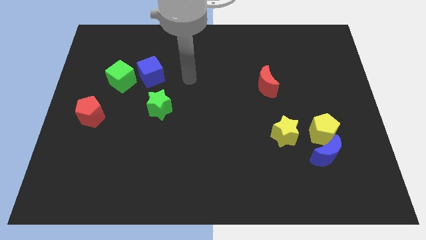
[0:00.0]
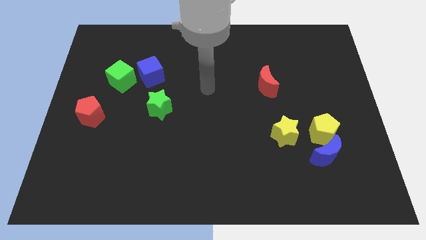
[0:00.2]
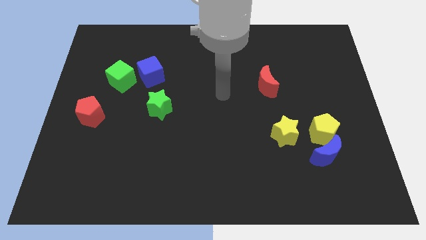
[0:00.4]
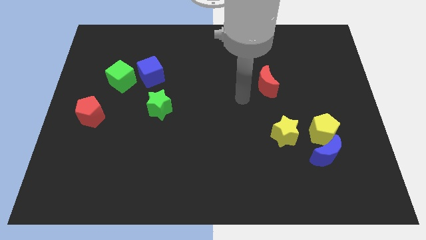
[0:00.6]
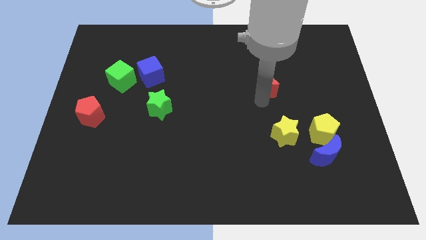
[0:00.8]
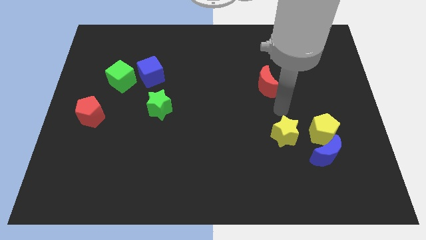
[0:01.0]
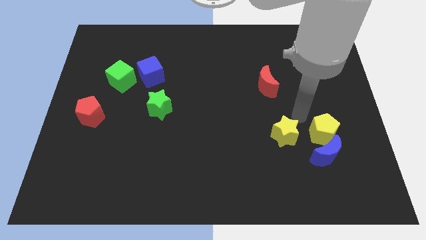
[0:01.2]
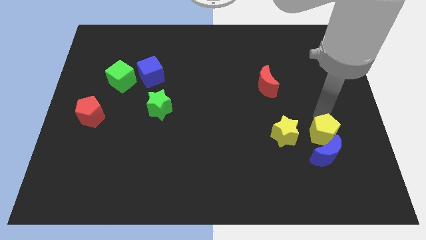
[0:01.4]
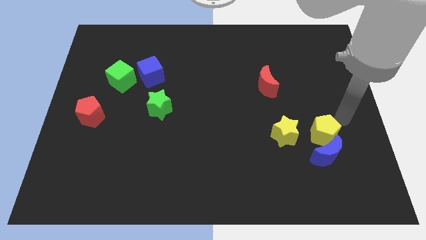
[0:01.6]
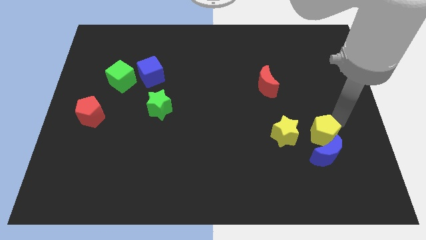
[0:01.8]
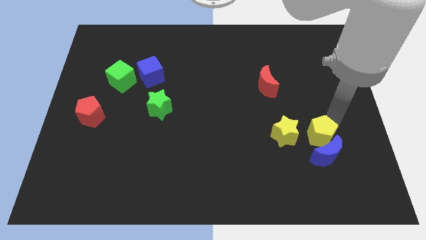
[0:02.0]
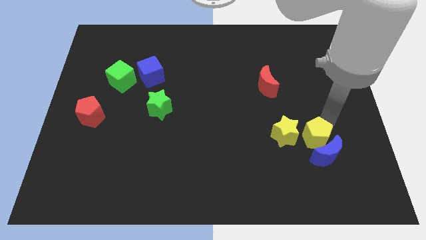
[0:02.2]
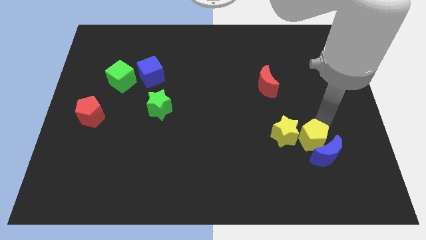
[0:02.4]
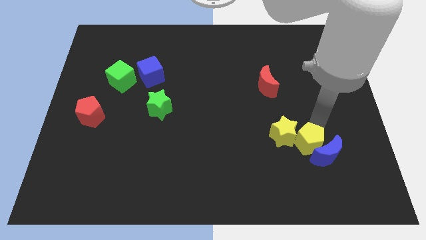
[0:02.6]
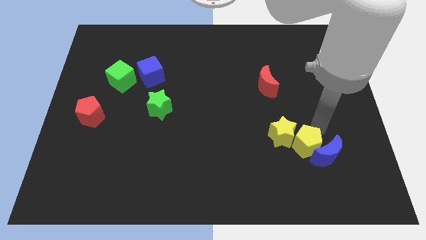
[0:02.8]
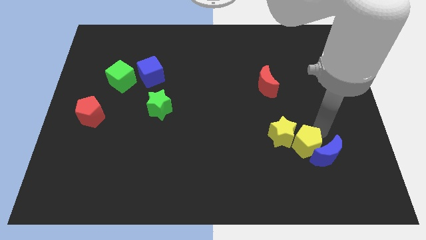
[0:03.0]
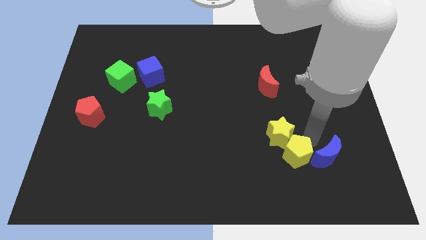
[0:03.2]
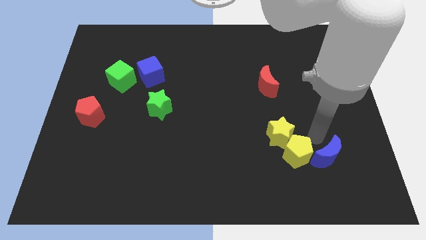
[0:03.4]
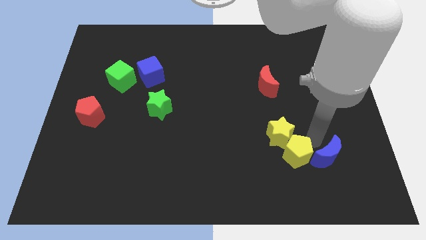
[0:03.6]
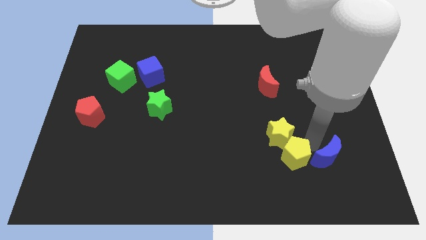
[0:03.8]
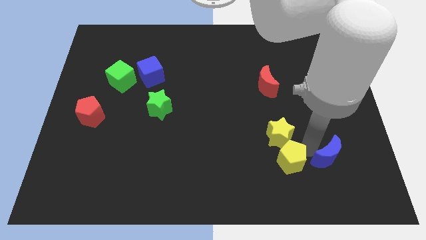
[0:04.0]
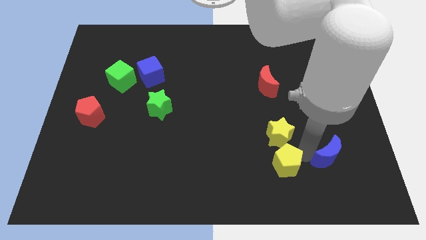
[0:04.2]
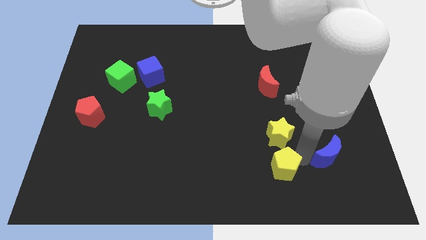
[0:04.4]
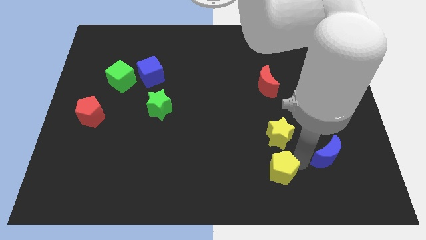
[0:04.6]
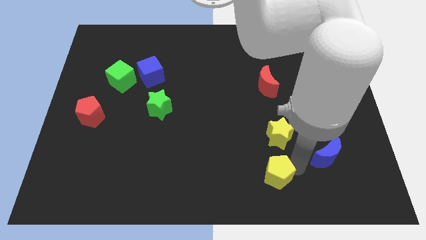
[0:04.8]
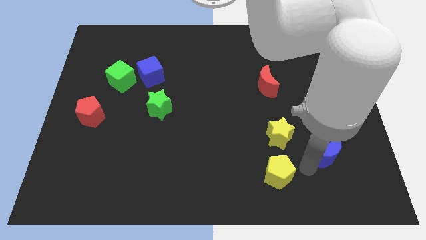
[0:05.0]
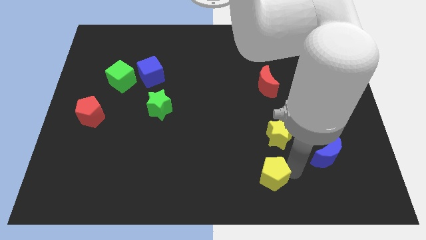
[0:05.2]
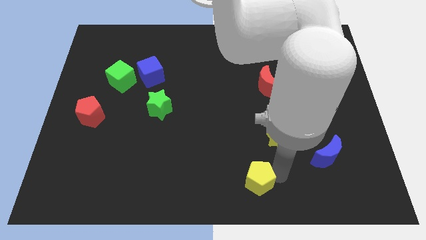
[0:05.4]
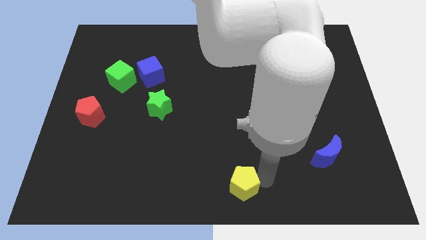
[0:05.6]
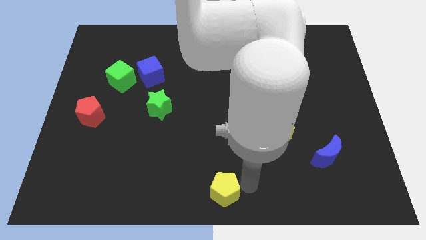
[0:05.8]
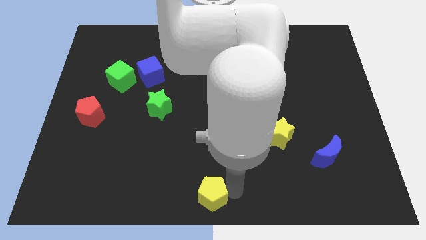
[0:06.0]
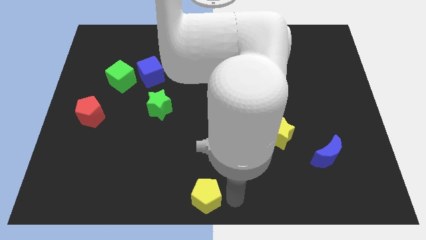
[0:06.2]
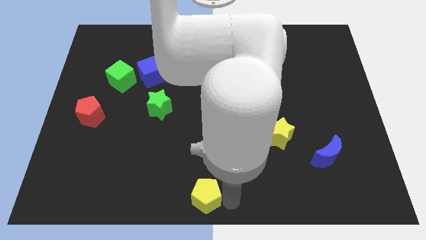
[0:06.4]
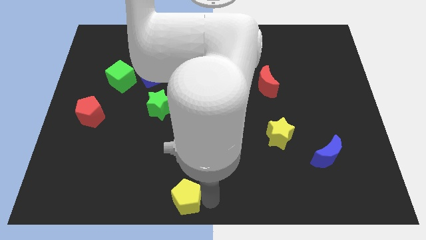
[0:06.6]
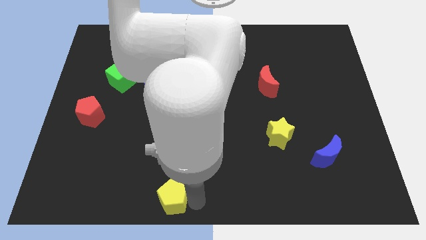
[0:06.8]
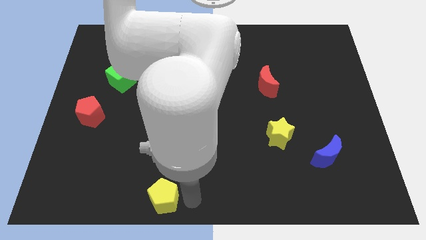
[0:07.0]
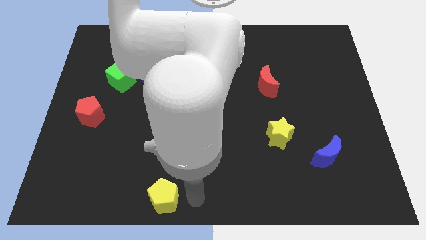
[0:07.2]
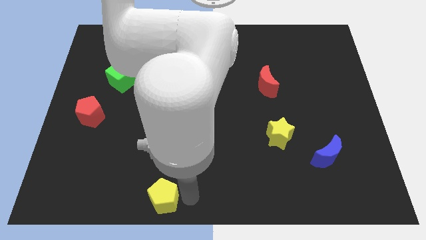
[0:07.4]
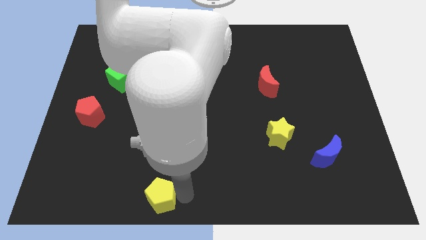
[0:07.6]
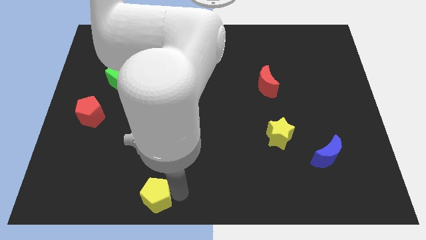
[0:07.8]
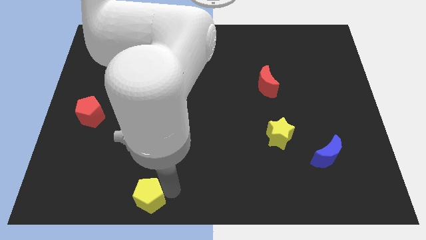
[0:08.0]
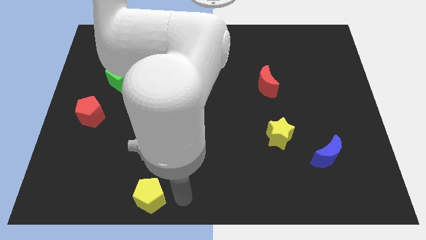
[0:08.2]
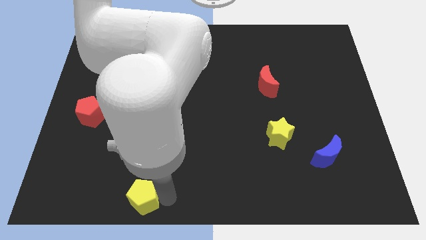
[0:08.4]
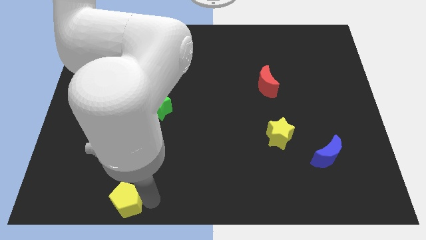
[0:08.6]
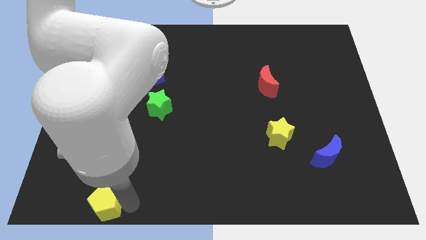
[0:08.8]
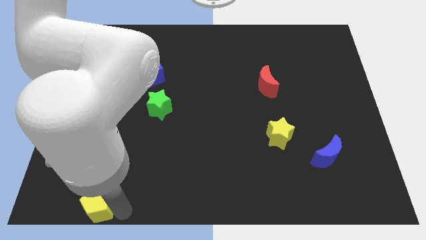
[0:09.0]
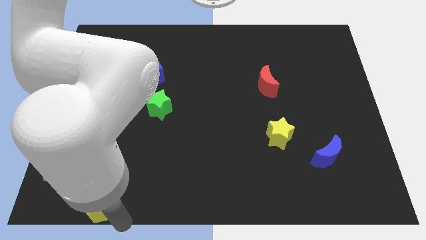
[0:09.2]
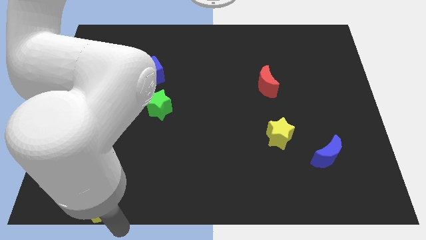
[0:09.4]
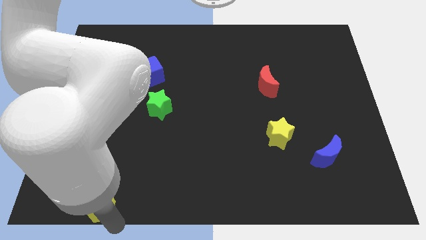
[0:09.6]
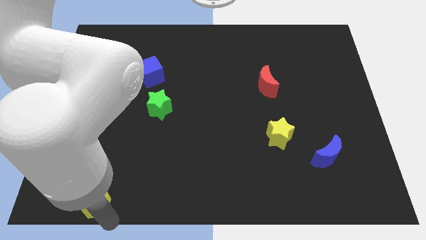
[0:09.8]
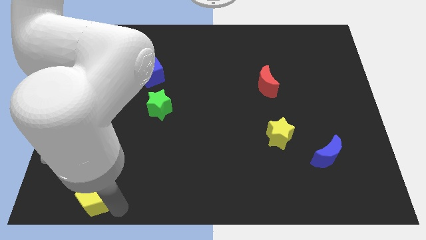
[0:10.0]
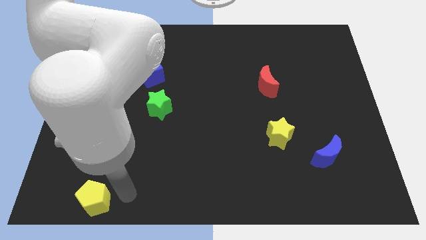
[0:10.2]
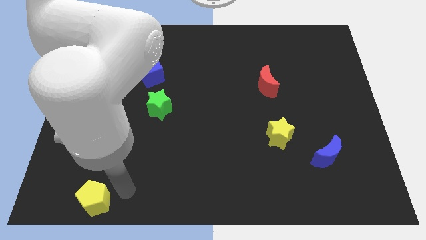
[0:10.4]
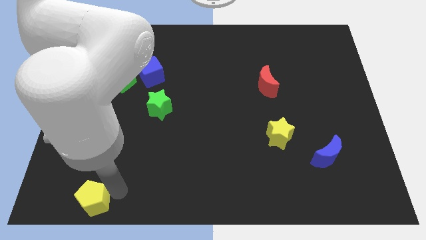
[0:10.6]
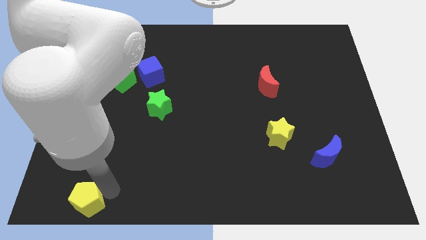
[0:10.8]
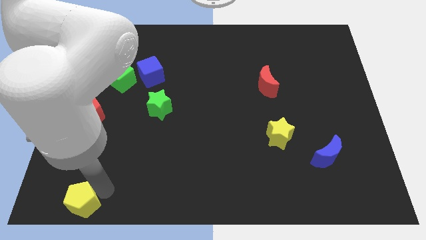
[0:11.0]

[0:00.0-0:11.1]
move the yellow pentagon to the bottom left corner
